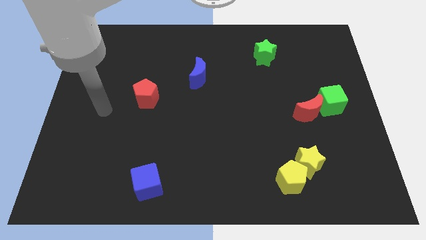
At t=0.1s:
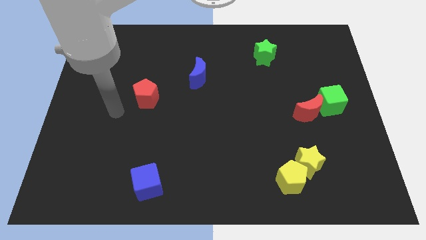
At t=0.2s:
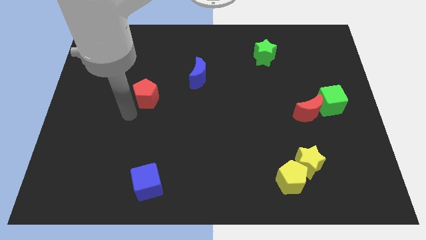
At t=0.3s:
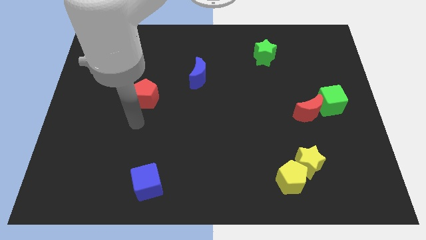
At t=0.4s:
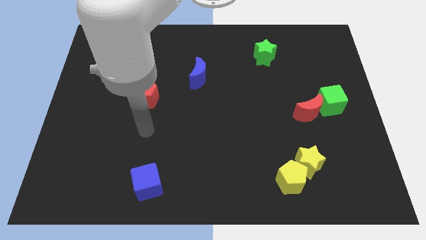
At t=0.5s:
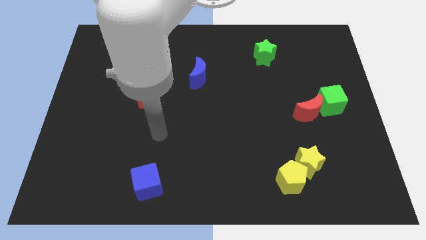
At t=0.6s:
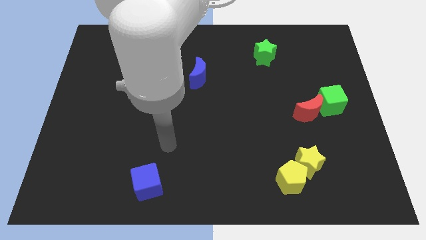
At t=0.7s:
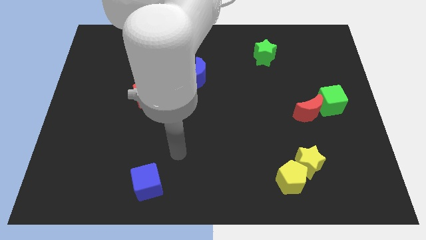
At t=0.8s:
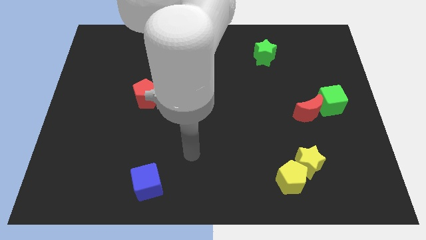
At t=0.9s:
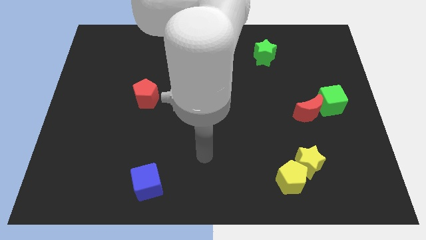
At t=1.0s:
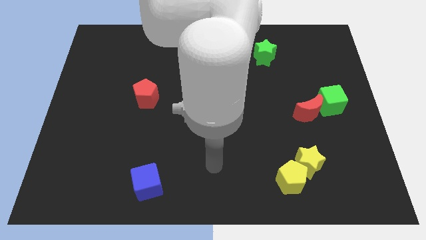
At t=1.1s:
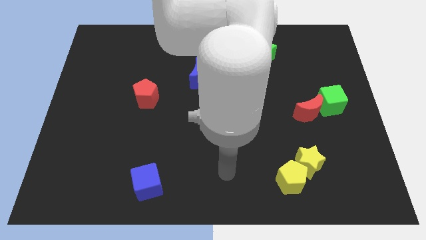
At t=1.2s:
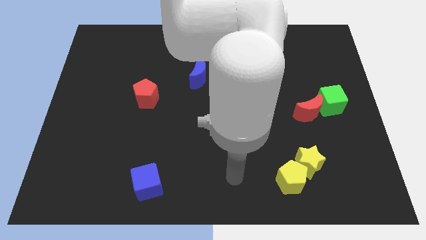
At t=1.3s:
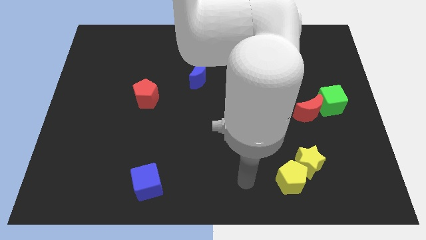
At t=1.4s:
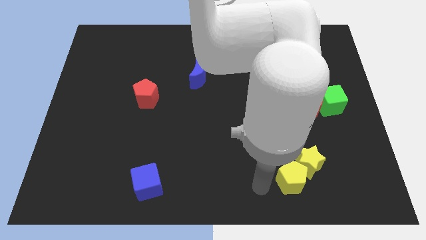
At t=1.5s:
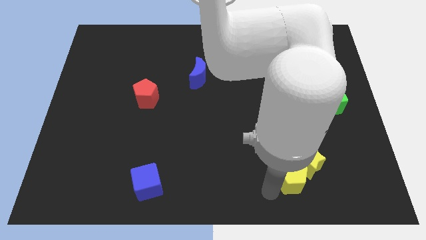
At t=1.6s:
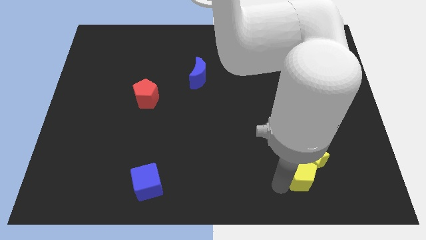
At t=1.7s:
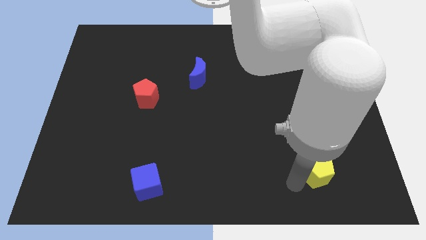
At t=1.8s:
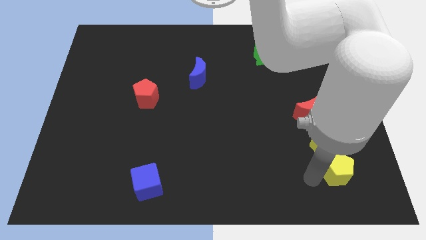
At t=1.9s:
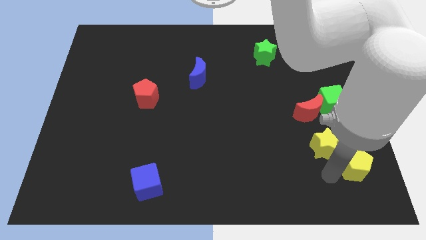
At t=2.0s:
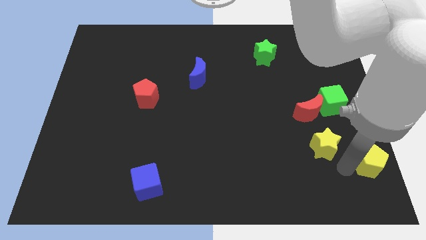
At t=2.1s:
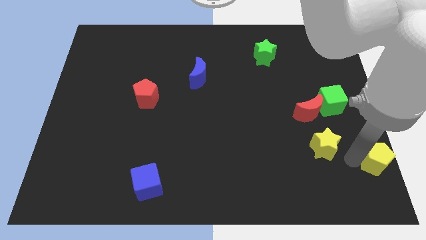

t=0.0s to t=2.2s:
move the yellow star away from the yellow pentagon

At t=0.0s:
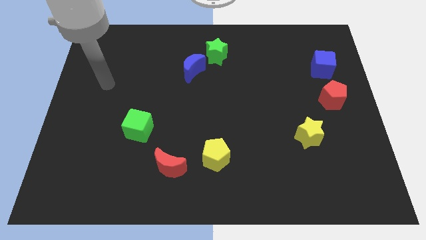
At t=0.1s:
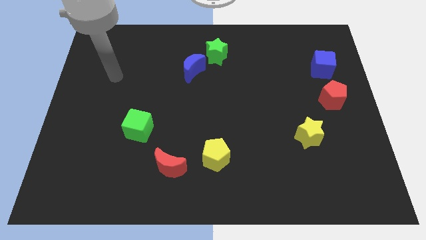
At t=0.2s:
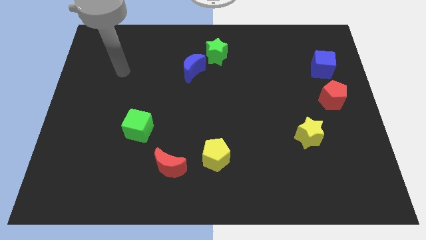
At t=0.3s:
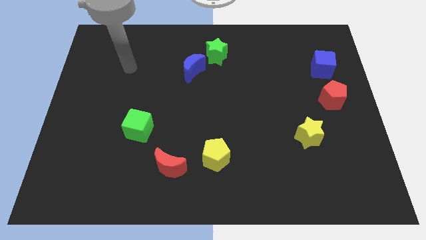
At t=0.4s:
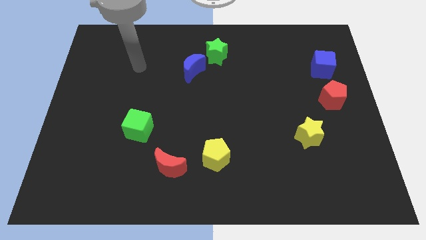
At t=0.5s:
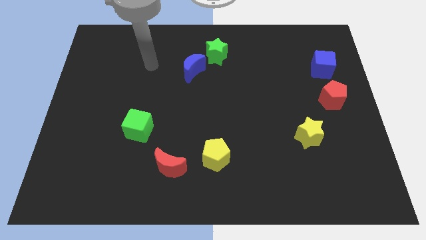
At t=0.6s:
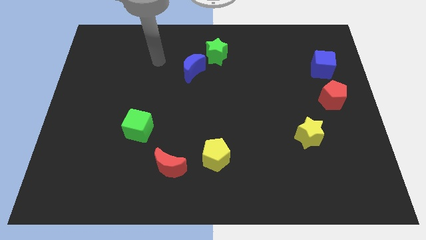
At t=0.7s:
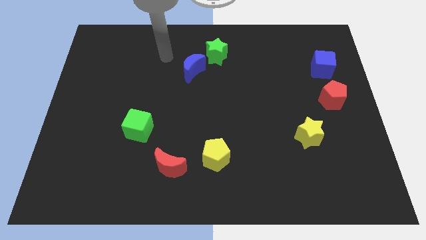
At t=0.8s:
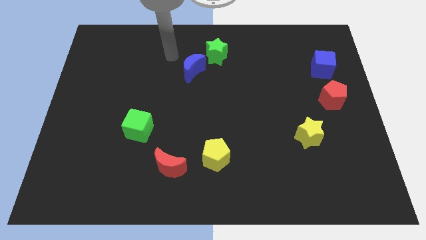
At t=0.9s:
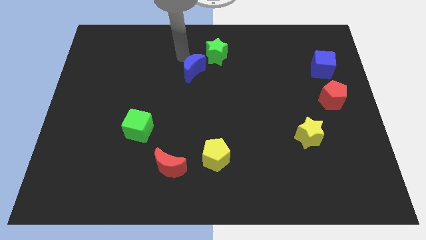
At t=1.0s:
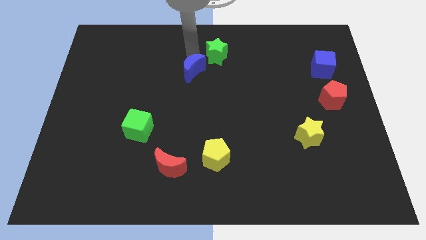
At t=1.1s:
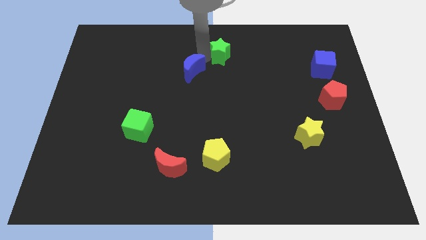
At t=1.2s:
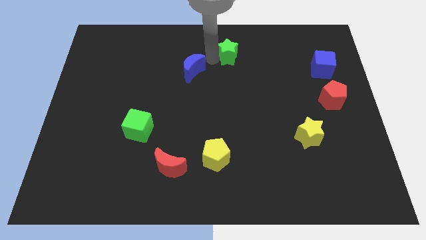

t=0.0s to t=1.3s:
move the blue moon away from the green star

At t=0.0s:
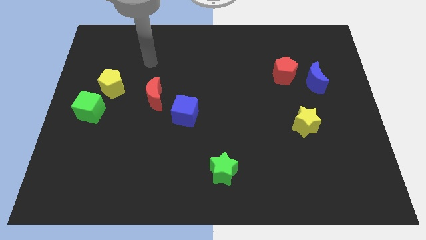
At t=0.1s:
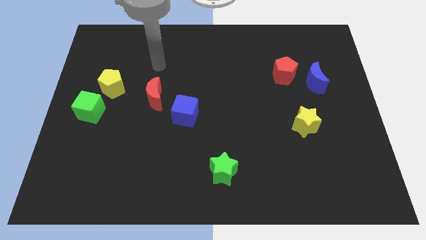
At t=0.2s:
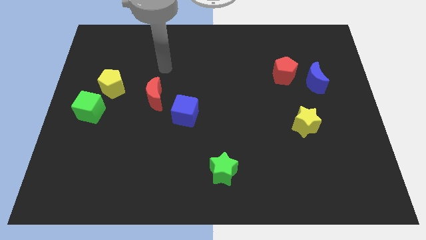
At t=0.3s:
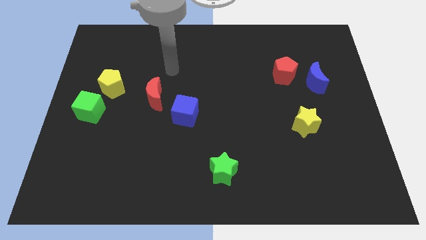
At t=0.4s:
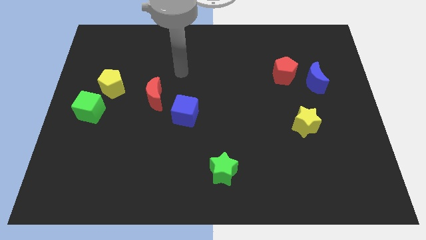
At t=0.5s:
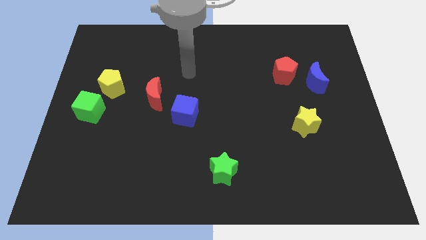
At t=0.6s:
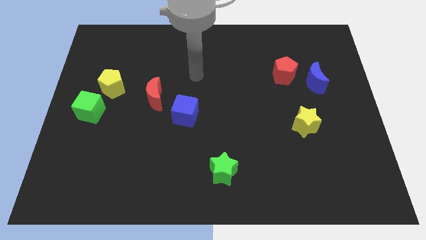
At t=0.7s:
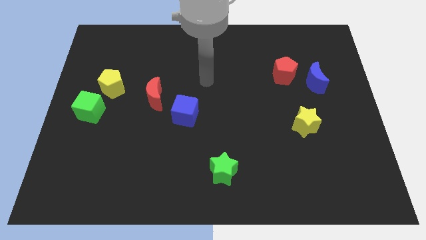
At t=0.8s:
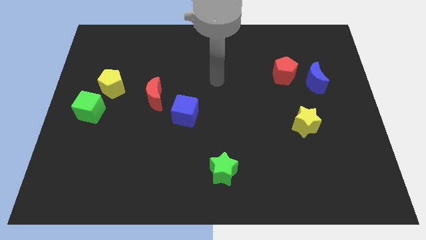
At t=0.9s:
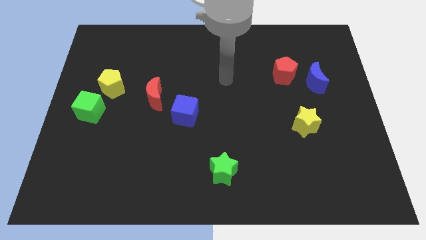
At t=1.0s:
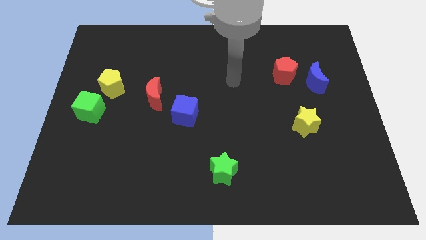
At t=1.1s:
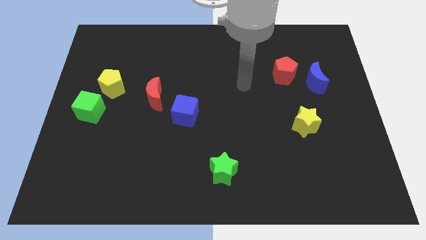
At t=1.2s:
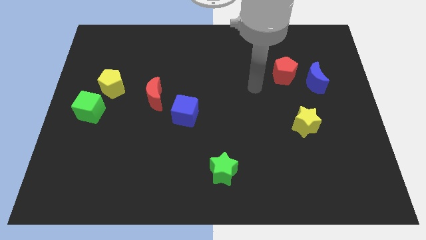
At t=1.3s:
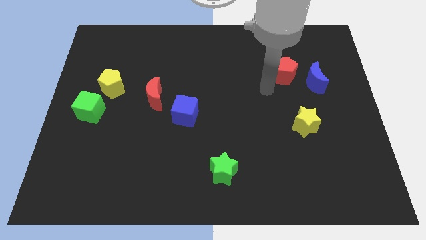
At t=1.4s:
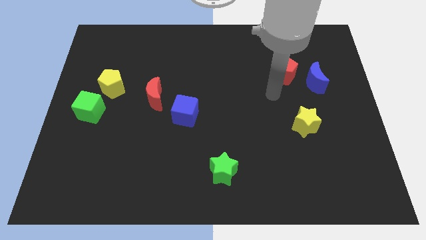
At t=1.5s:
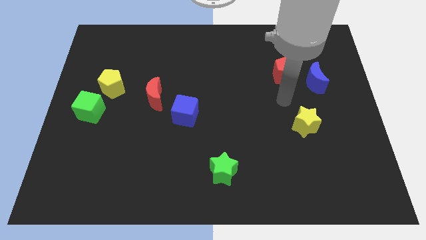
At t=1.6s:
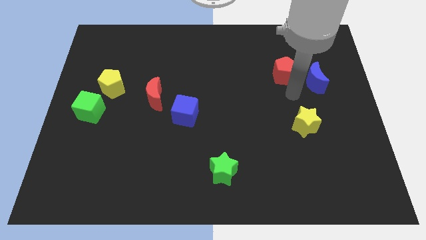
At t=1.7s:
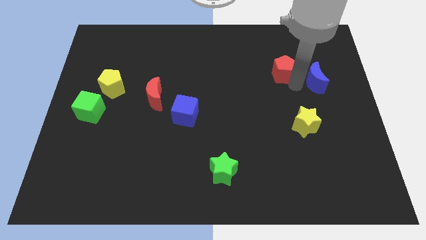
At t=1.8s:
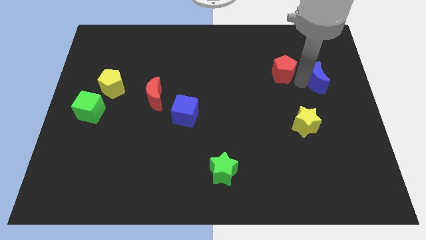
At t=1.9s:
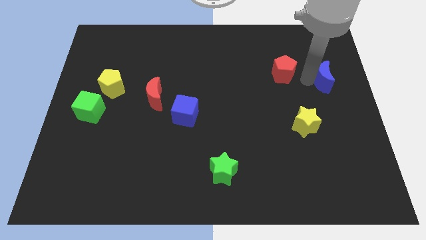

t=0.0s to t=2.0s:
pull the red pentagon apart from the blue moon

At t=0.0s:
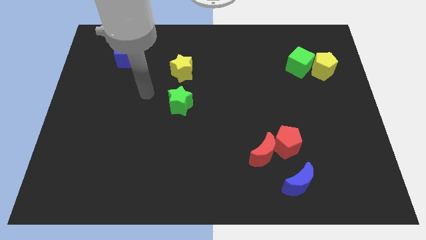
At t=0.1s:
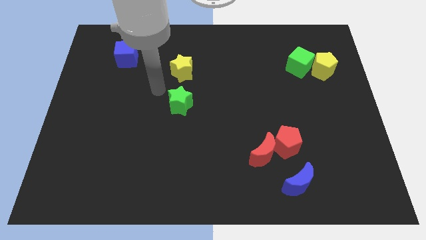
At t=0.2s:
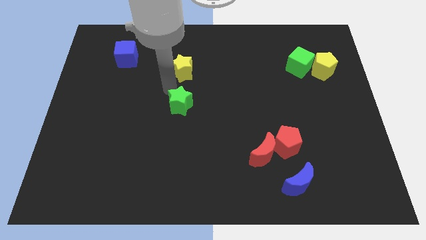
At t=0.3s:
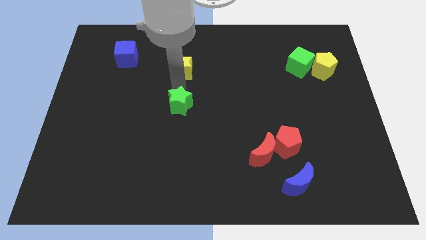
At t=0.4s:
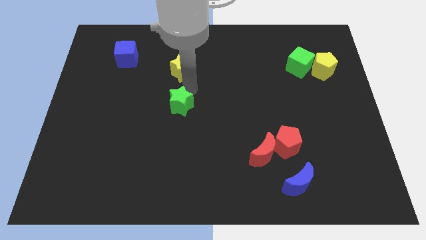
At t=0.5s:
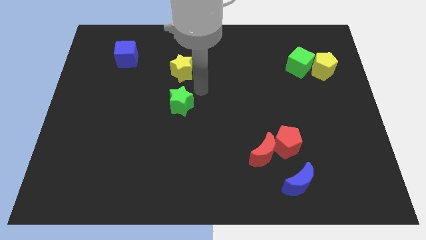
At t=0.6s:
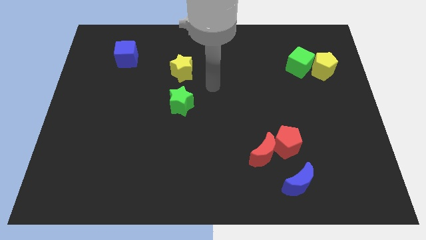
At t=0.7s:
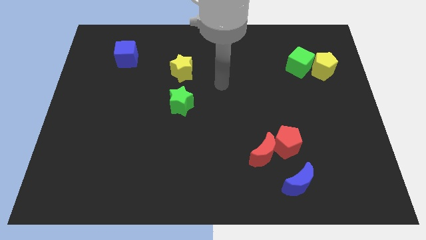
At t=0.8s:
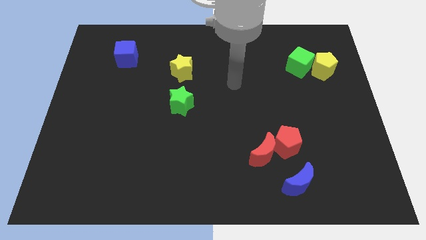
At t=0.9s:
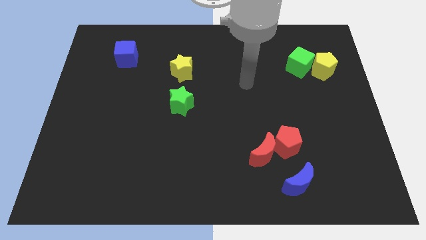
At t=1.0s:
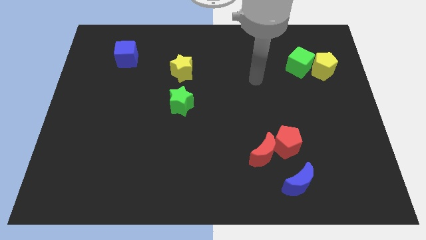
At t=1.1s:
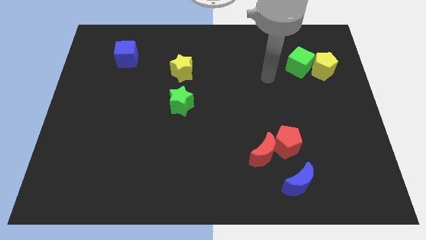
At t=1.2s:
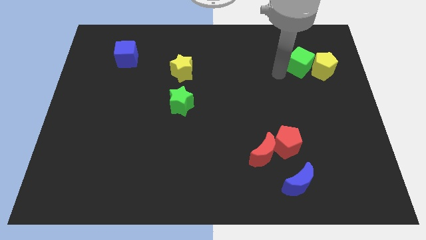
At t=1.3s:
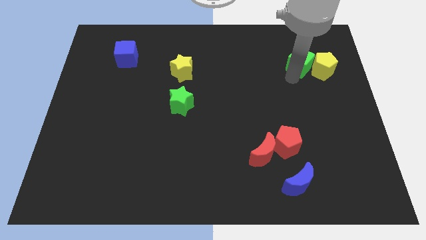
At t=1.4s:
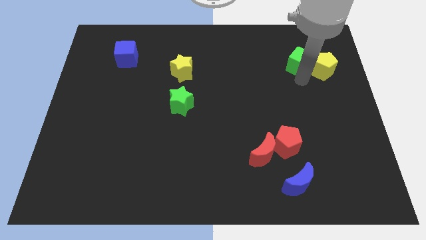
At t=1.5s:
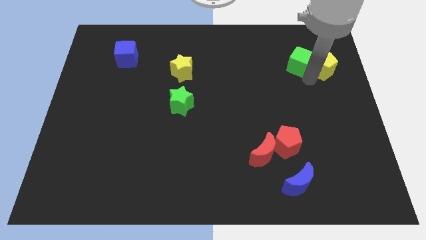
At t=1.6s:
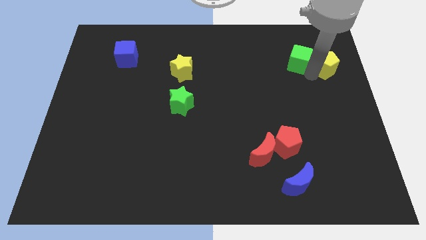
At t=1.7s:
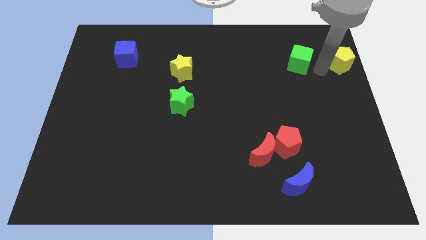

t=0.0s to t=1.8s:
move the green cube away from the yellow pentagon

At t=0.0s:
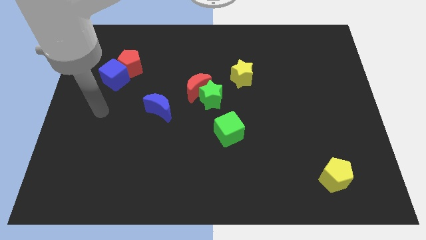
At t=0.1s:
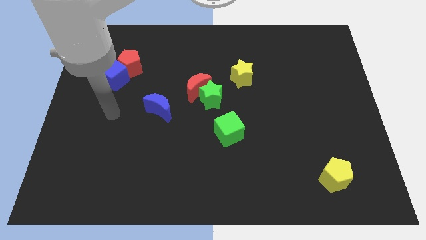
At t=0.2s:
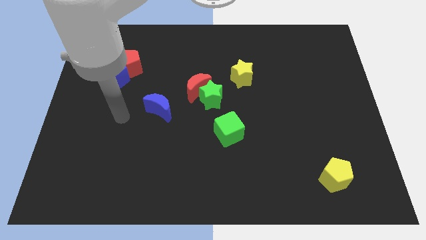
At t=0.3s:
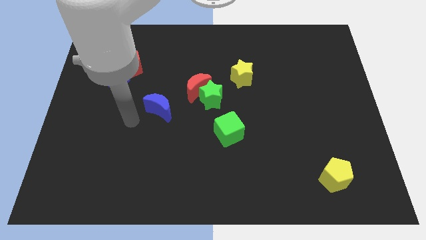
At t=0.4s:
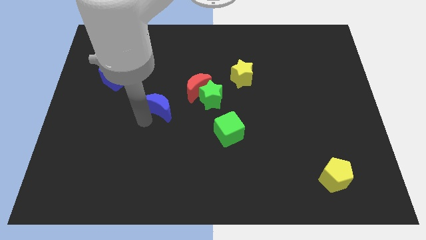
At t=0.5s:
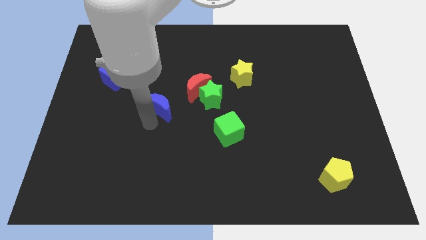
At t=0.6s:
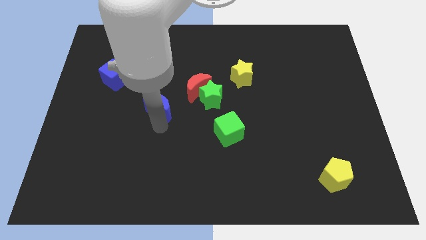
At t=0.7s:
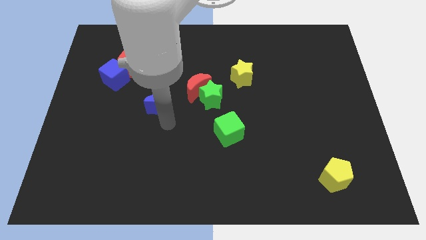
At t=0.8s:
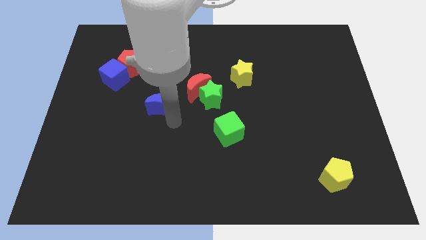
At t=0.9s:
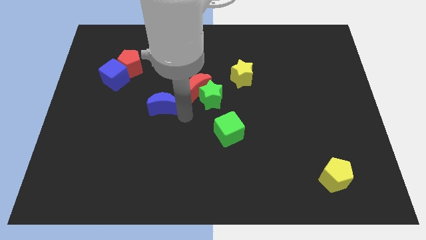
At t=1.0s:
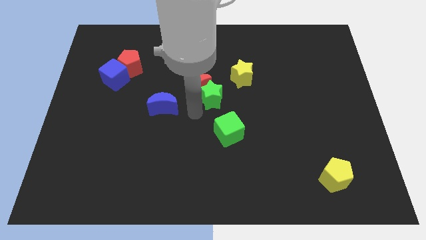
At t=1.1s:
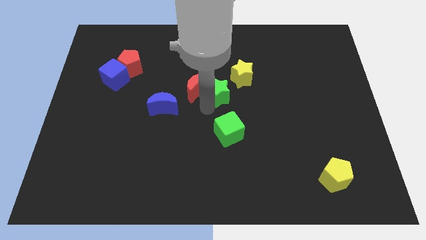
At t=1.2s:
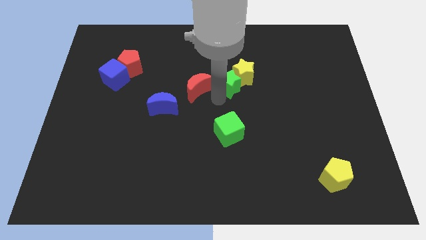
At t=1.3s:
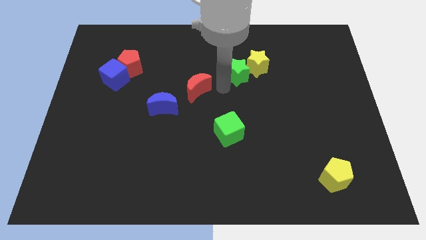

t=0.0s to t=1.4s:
move the red moon away from the green star

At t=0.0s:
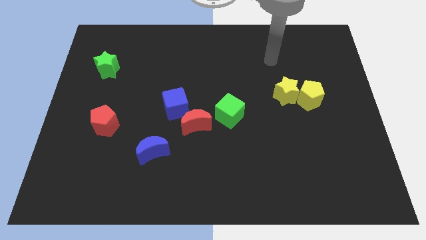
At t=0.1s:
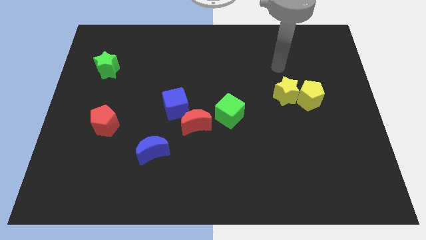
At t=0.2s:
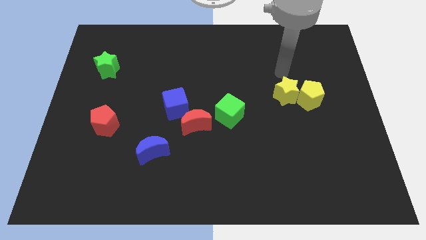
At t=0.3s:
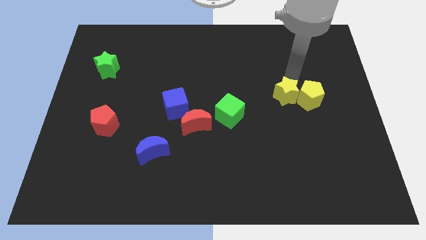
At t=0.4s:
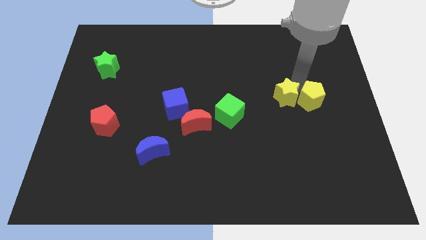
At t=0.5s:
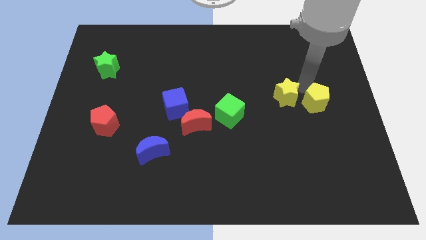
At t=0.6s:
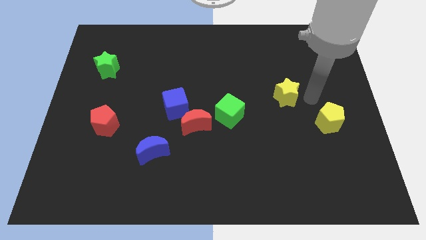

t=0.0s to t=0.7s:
separate the yellow star from the yellow pentagon

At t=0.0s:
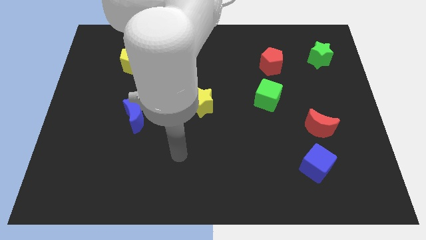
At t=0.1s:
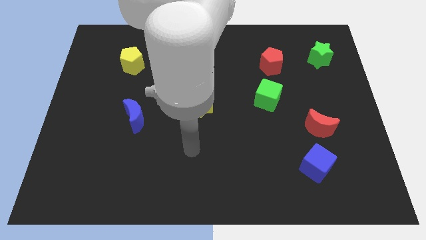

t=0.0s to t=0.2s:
pull the red moon apart from the blue cube
